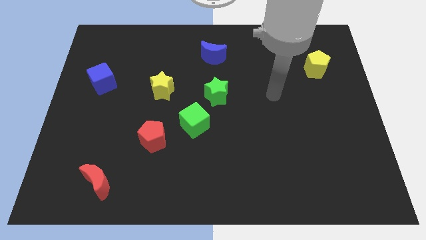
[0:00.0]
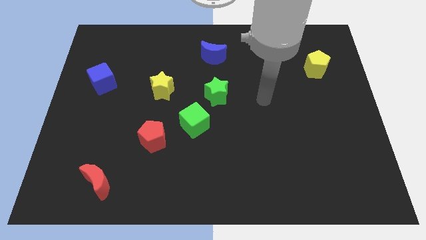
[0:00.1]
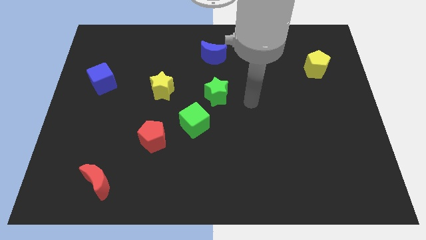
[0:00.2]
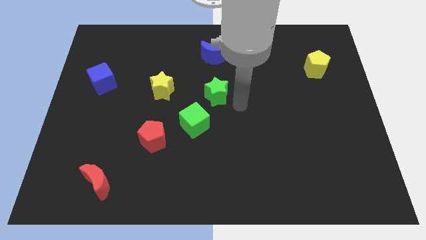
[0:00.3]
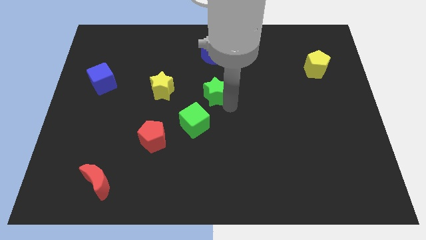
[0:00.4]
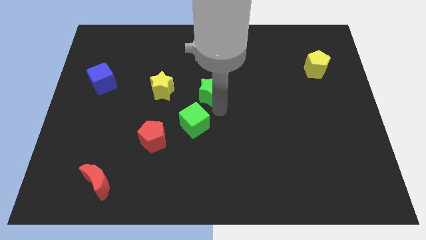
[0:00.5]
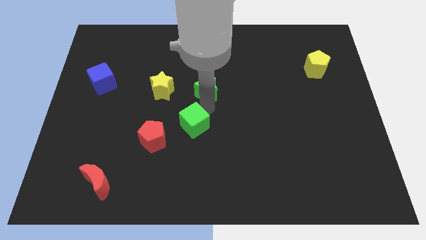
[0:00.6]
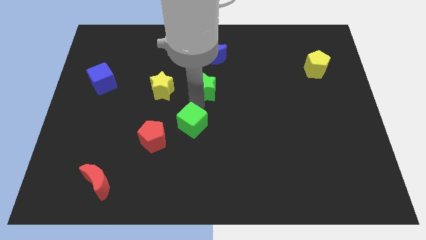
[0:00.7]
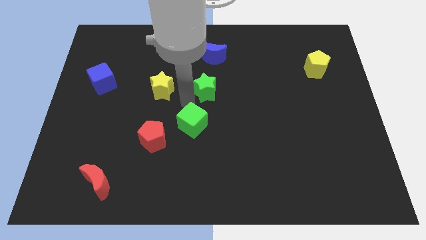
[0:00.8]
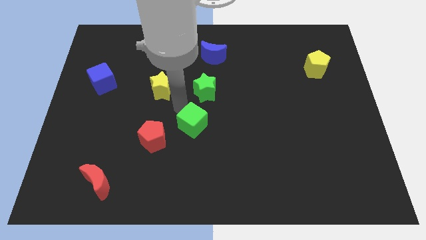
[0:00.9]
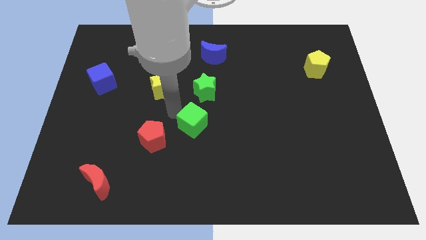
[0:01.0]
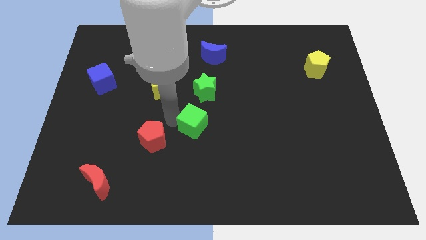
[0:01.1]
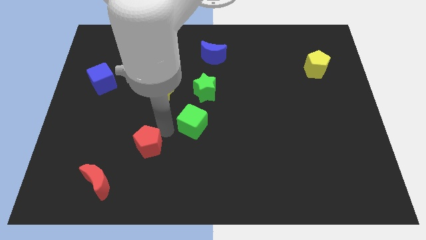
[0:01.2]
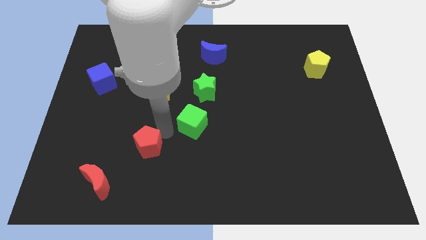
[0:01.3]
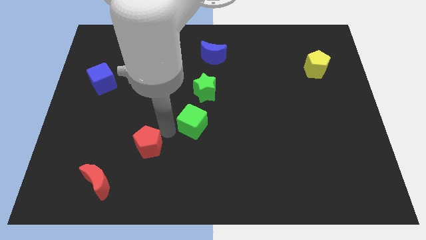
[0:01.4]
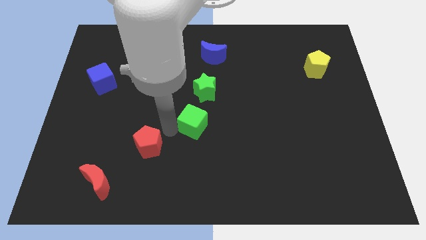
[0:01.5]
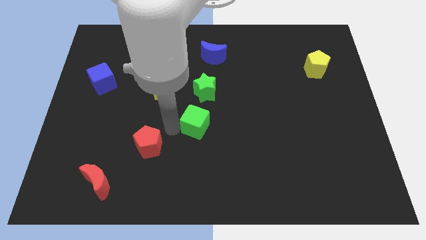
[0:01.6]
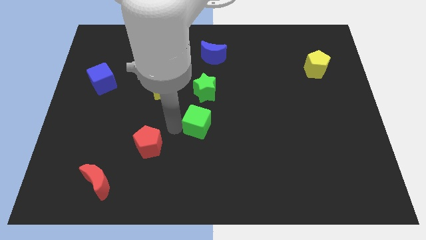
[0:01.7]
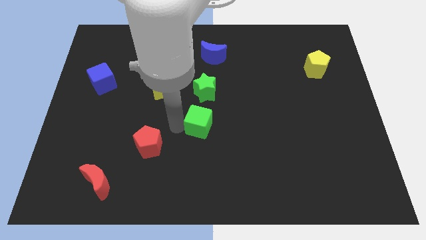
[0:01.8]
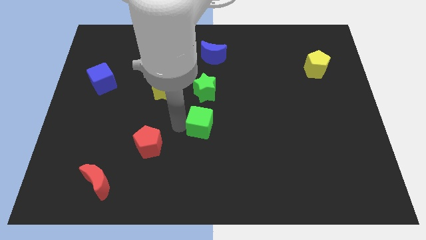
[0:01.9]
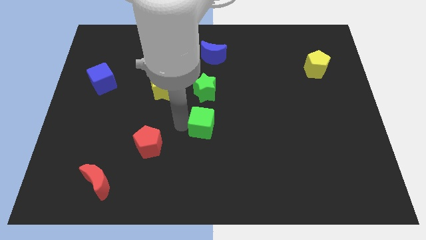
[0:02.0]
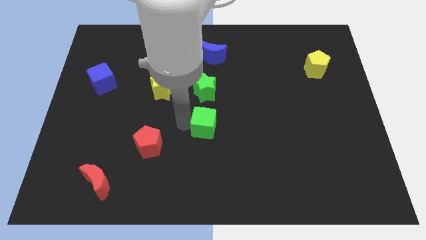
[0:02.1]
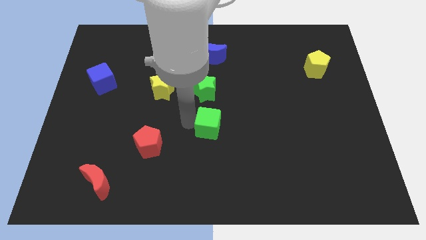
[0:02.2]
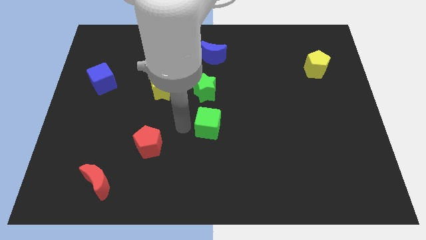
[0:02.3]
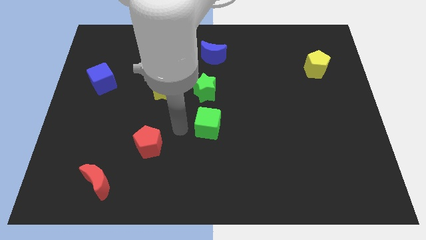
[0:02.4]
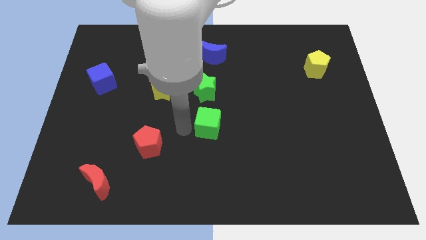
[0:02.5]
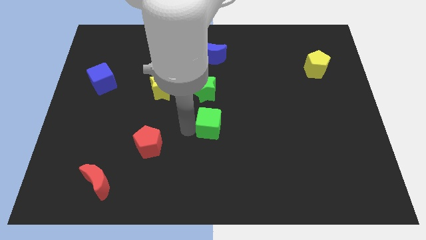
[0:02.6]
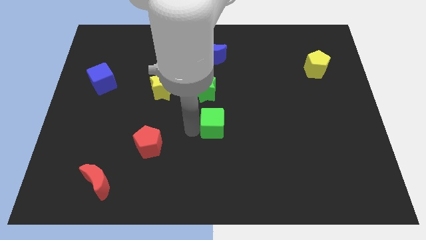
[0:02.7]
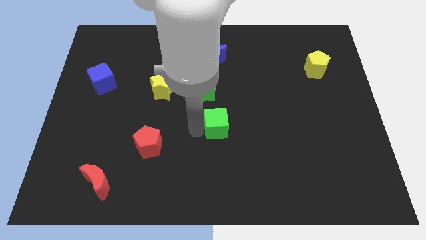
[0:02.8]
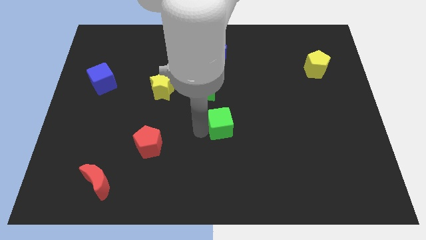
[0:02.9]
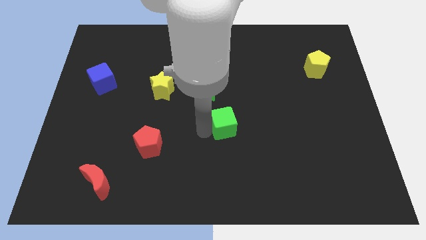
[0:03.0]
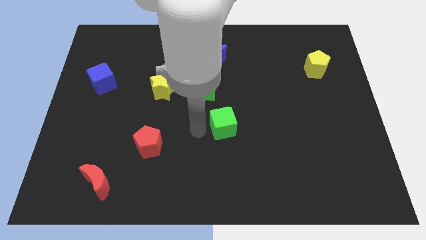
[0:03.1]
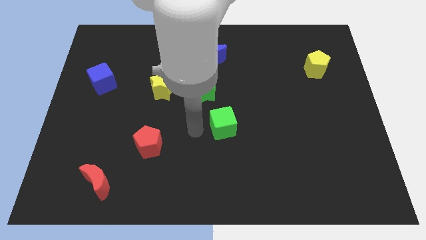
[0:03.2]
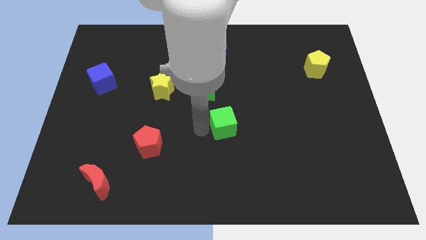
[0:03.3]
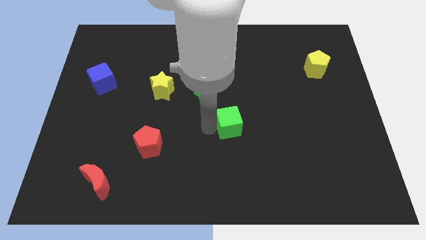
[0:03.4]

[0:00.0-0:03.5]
slide the green cube to the right slightly

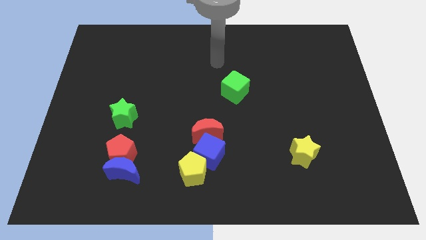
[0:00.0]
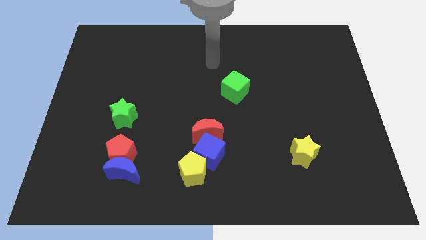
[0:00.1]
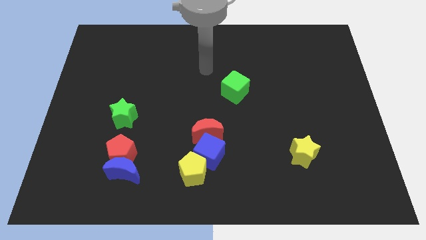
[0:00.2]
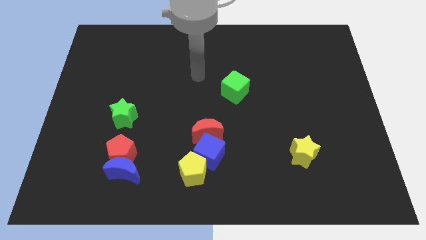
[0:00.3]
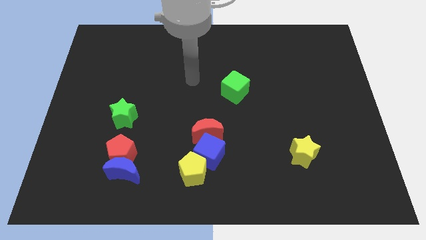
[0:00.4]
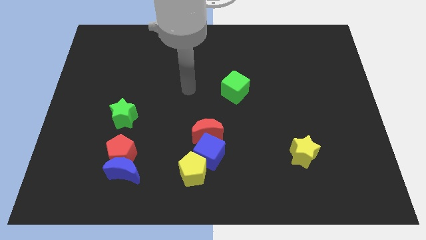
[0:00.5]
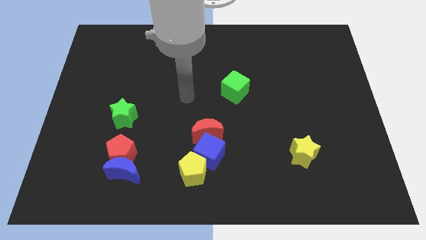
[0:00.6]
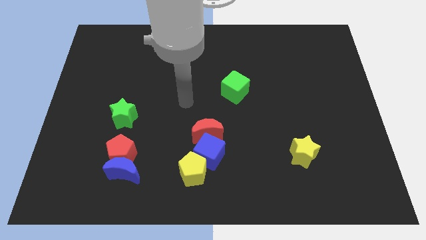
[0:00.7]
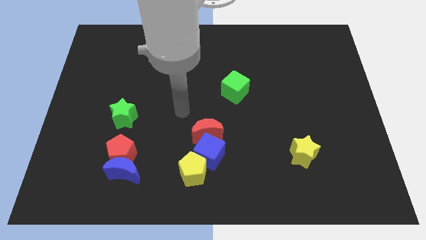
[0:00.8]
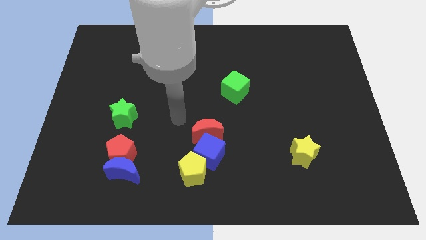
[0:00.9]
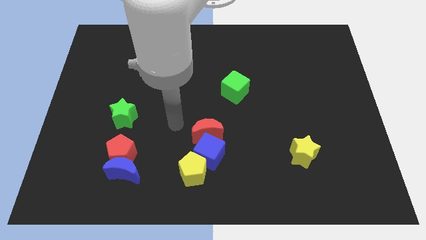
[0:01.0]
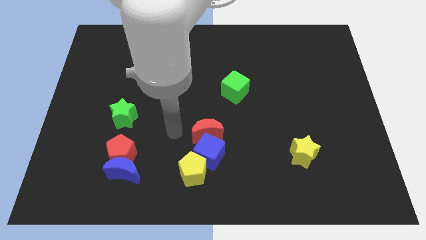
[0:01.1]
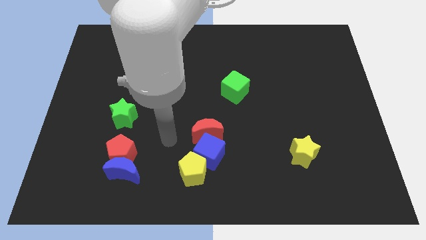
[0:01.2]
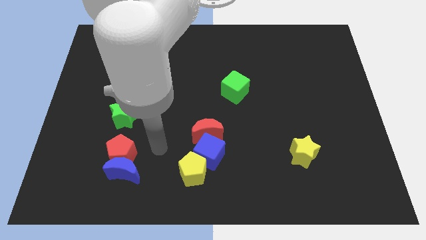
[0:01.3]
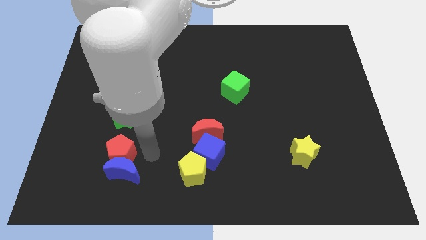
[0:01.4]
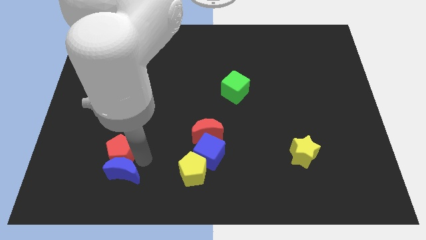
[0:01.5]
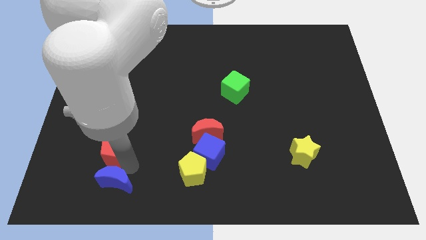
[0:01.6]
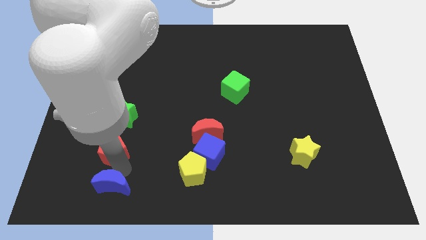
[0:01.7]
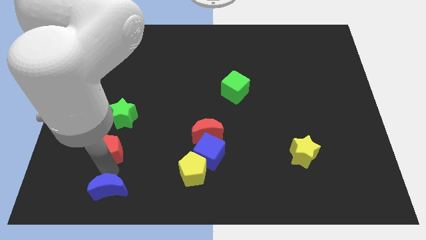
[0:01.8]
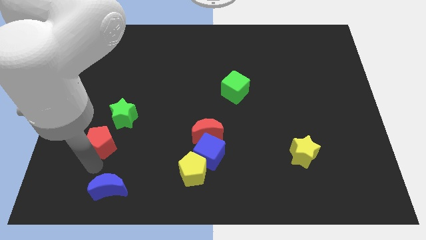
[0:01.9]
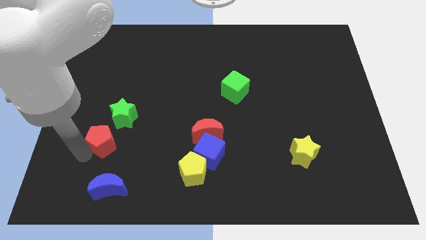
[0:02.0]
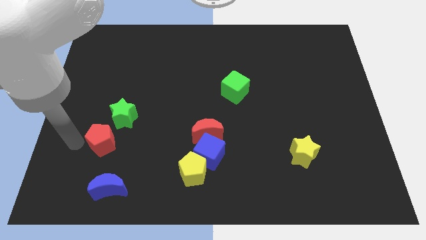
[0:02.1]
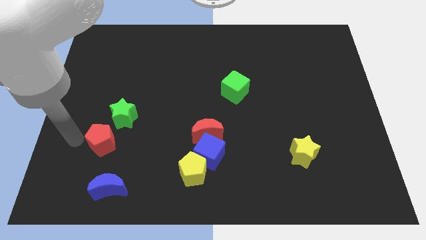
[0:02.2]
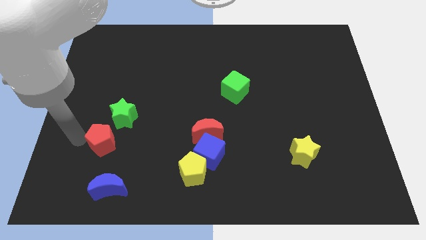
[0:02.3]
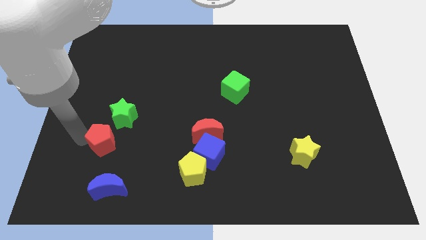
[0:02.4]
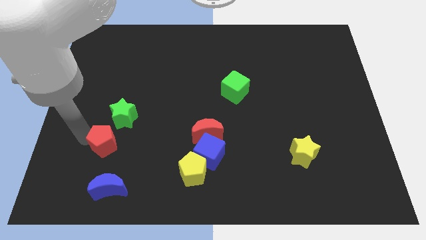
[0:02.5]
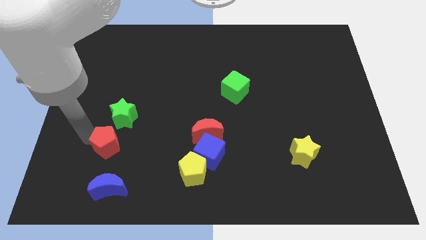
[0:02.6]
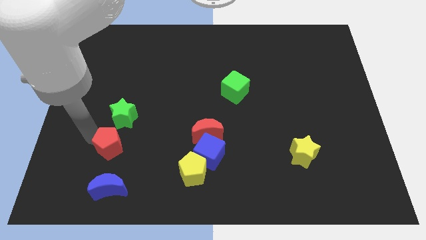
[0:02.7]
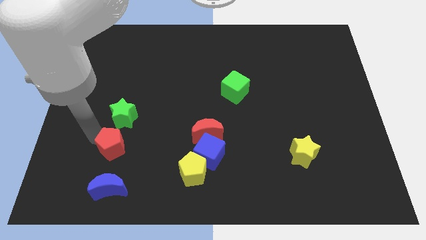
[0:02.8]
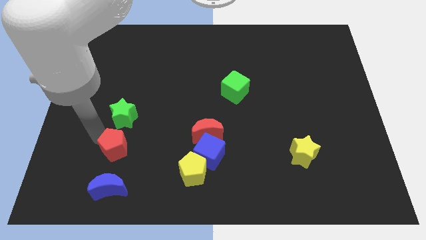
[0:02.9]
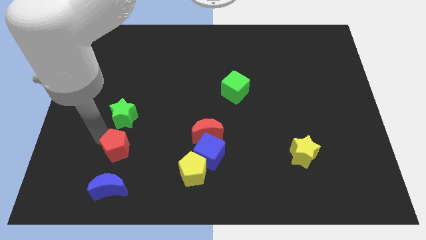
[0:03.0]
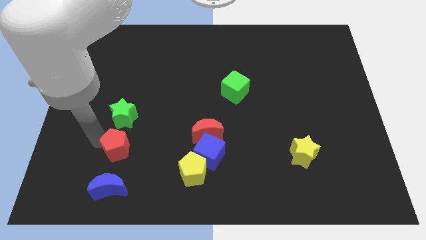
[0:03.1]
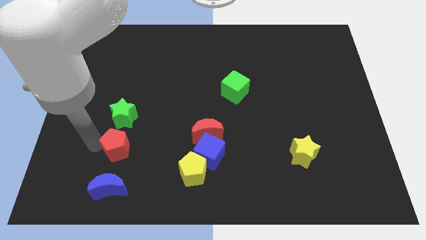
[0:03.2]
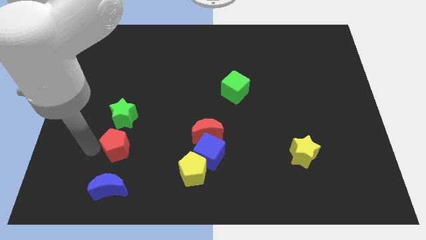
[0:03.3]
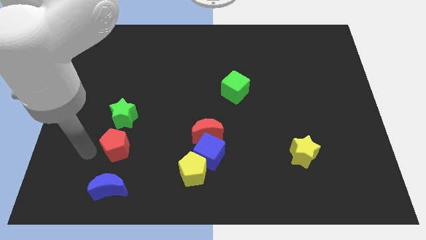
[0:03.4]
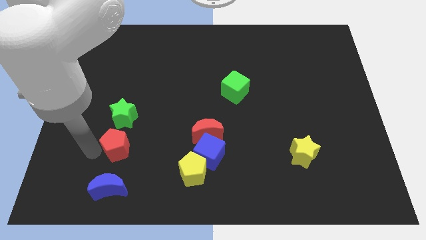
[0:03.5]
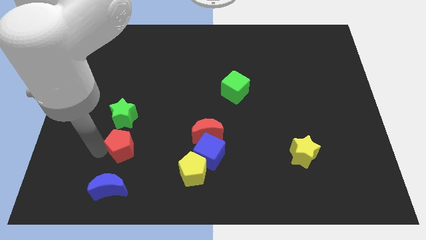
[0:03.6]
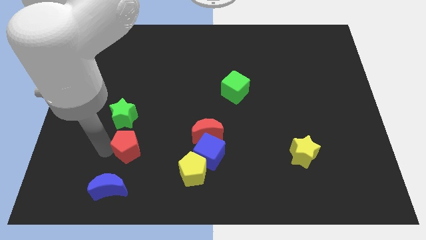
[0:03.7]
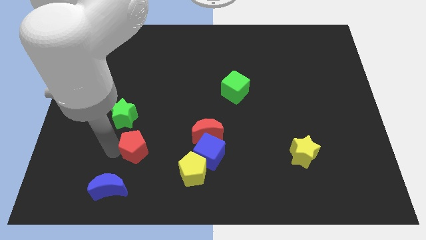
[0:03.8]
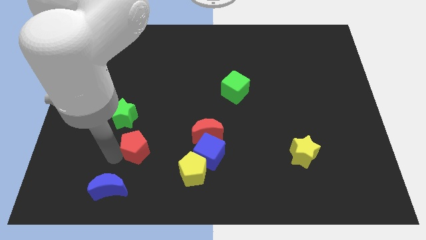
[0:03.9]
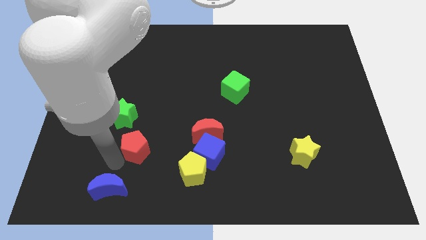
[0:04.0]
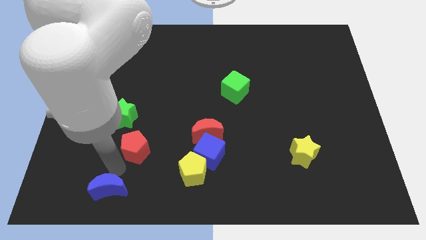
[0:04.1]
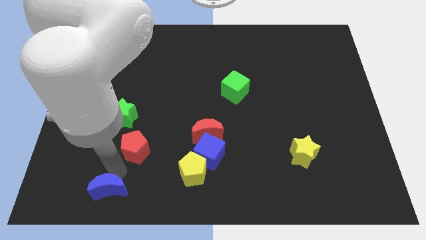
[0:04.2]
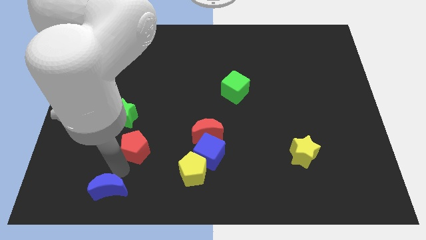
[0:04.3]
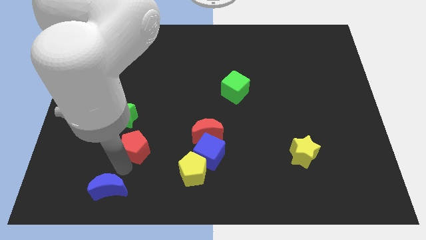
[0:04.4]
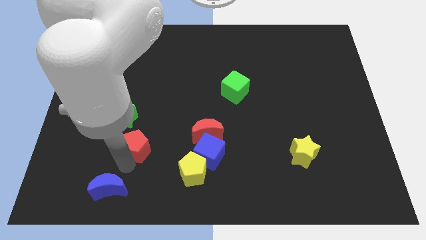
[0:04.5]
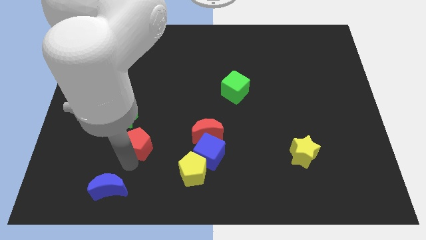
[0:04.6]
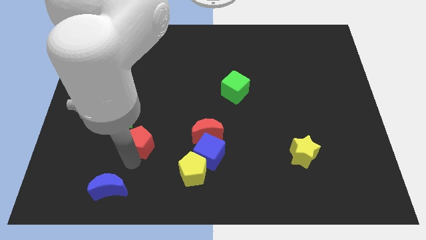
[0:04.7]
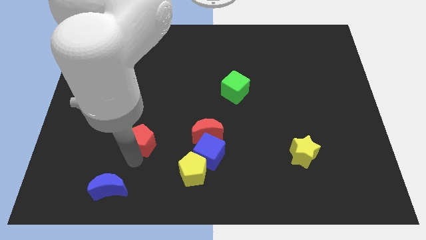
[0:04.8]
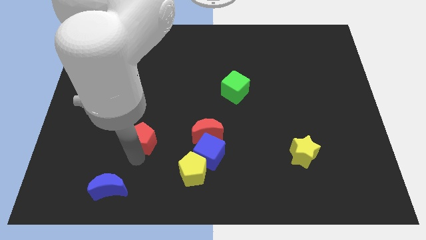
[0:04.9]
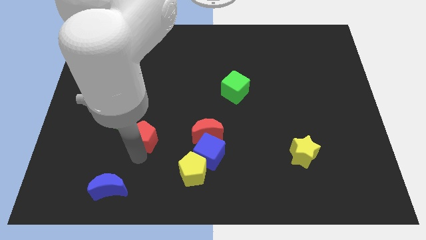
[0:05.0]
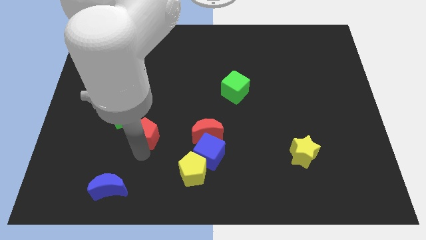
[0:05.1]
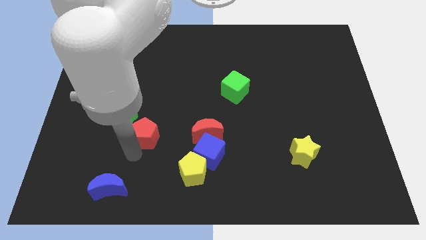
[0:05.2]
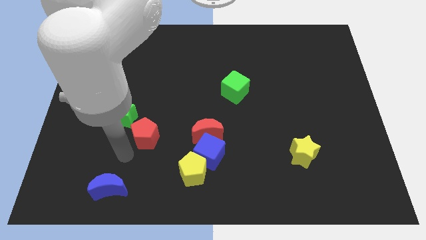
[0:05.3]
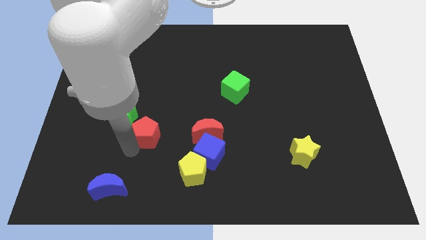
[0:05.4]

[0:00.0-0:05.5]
push the red pentagon slightly up and to the right
